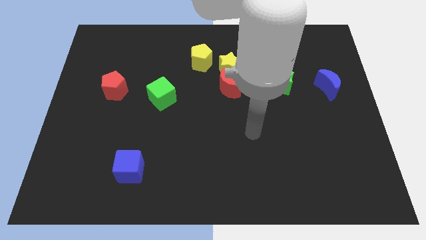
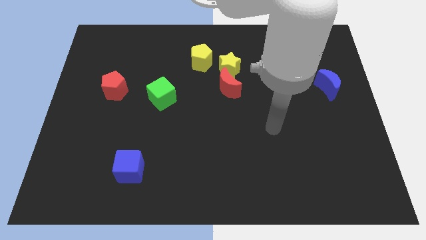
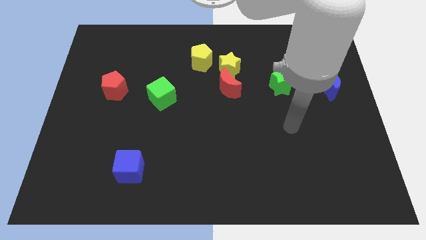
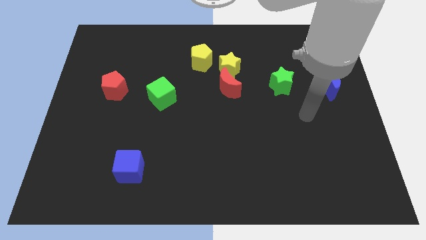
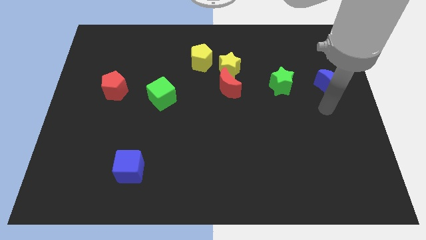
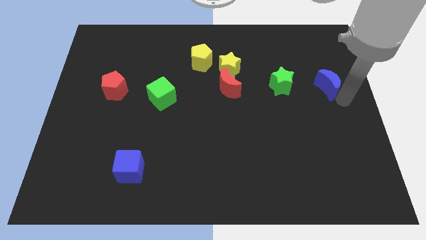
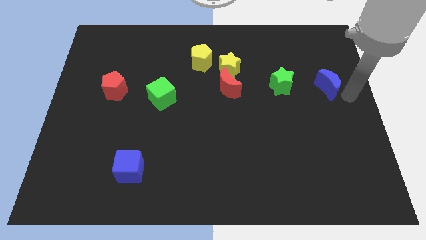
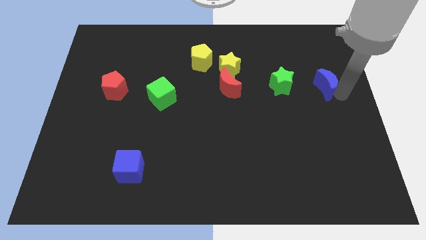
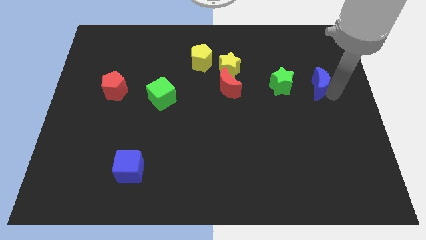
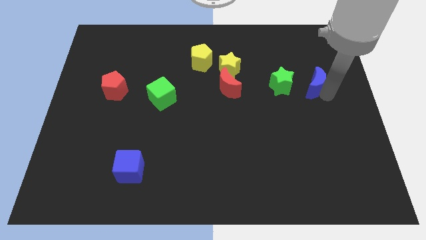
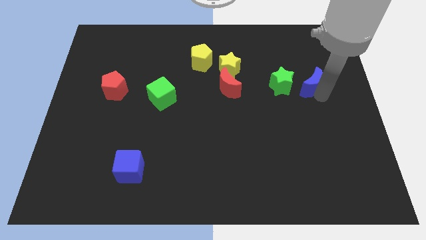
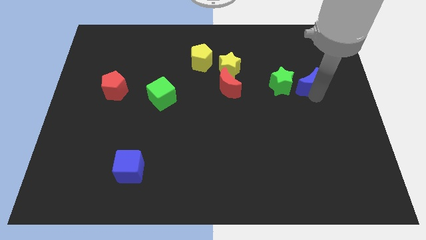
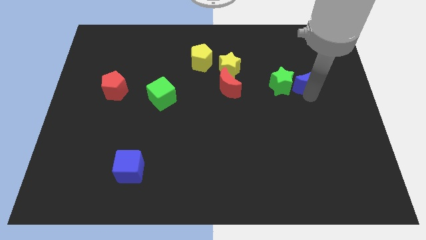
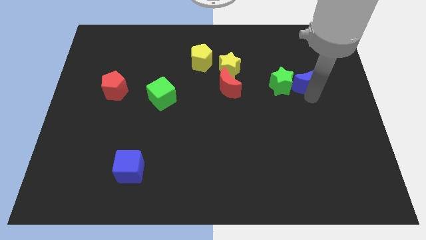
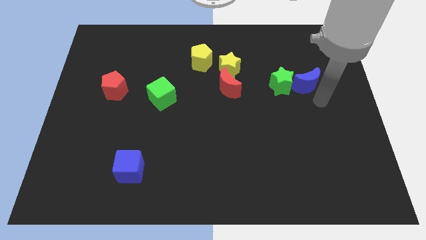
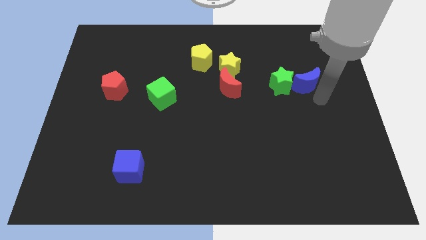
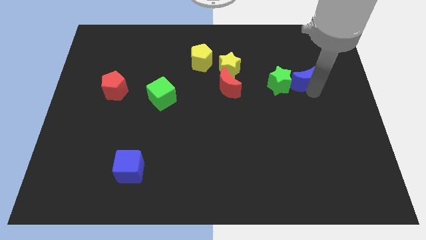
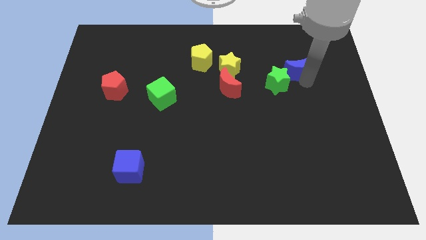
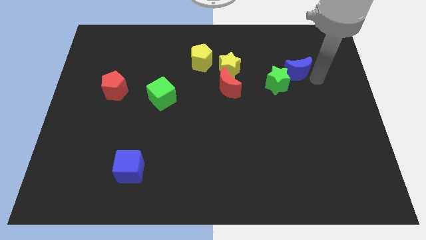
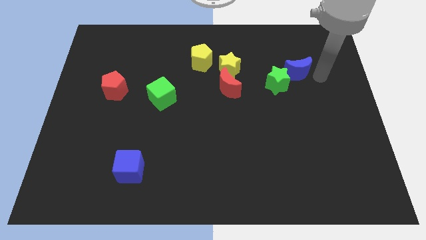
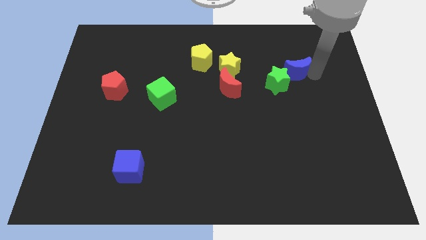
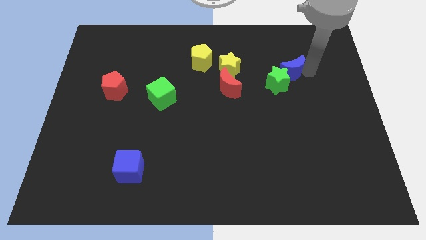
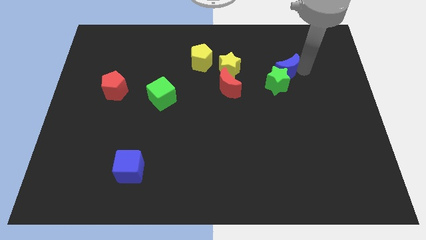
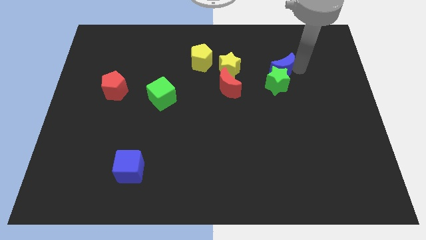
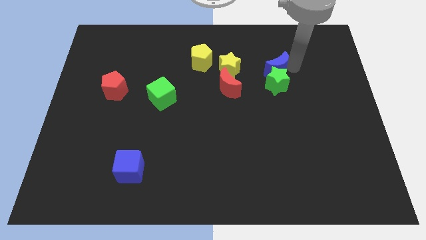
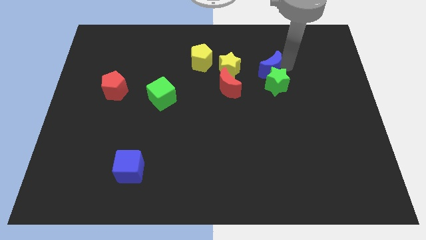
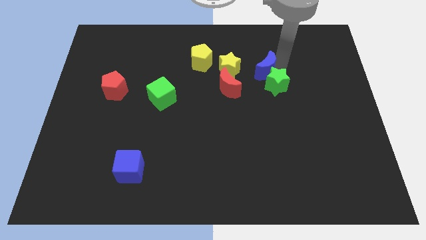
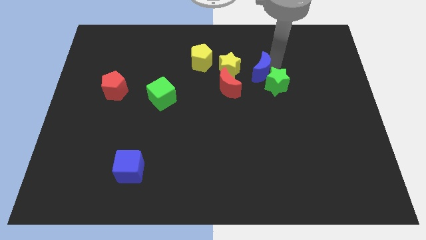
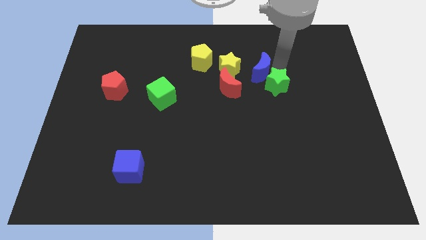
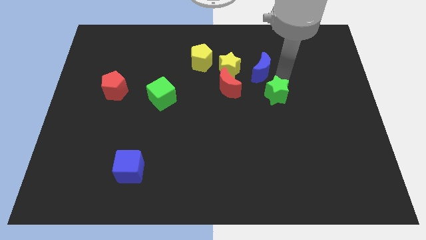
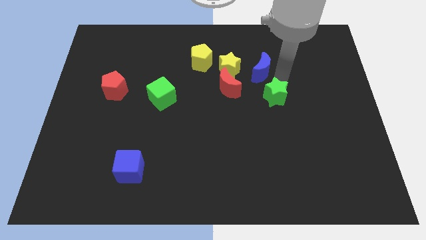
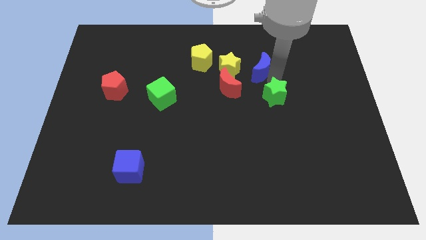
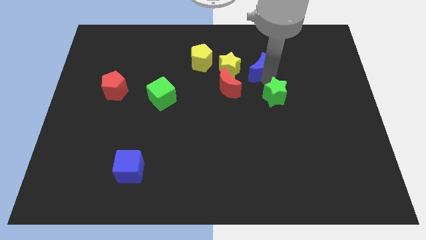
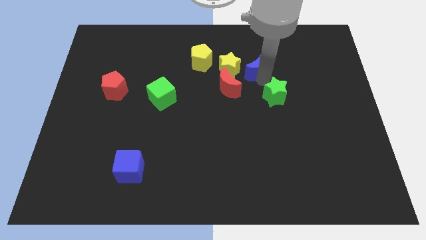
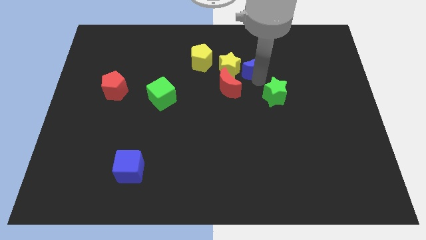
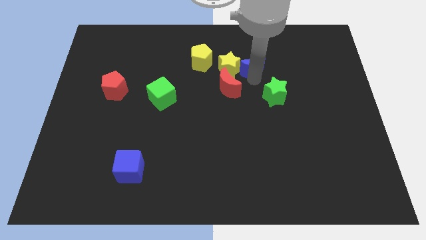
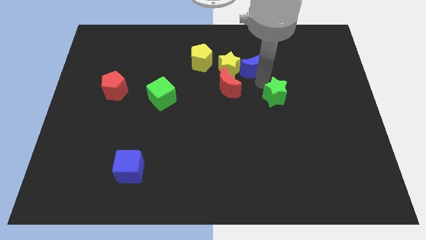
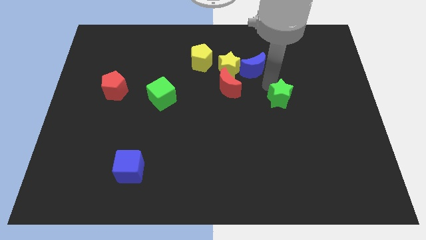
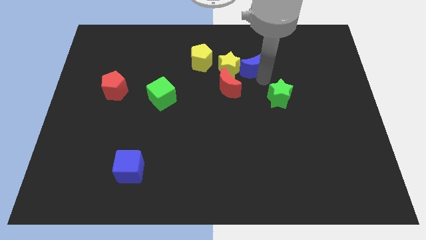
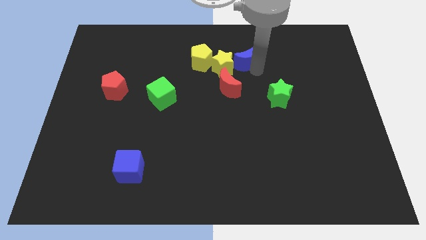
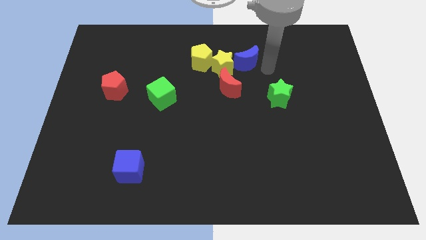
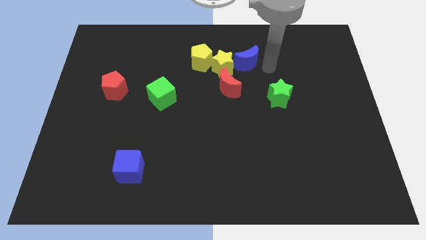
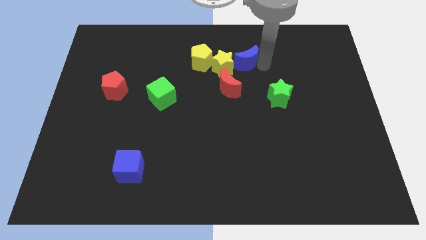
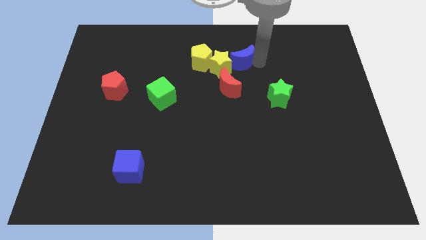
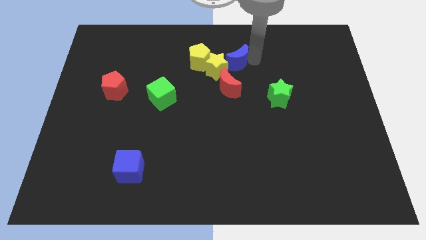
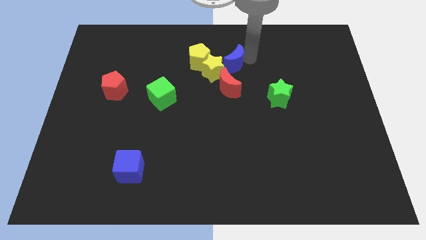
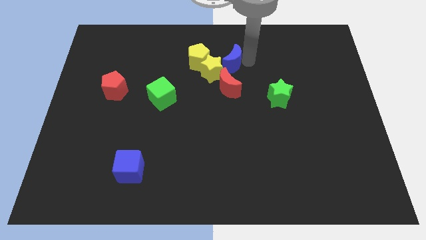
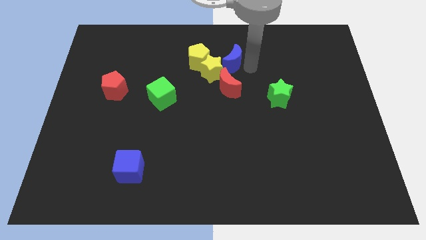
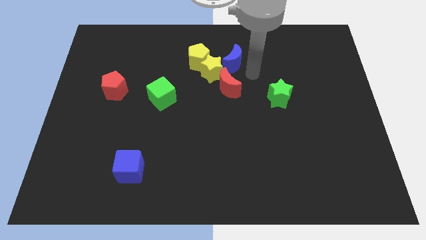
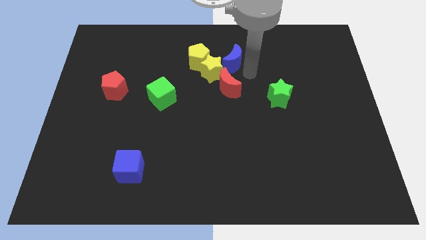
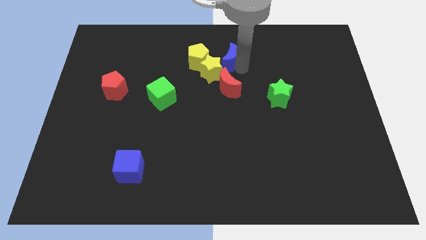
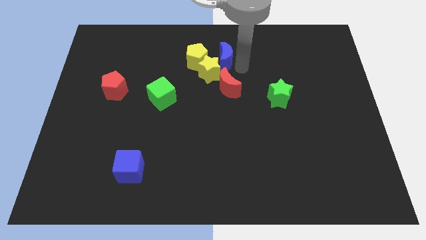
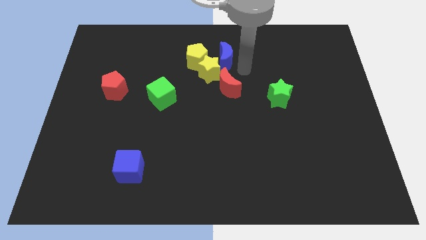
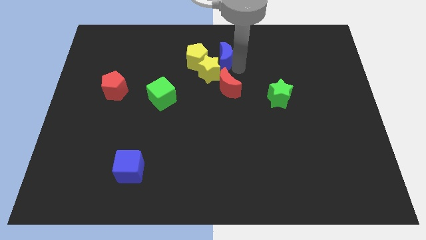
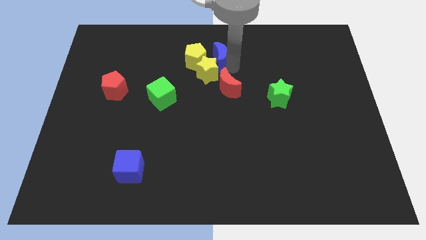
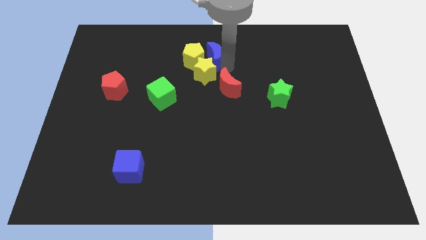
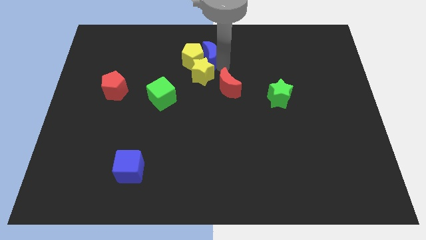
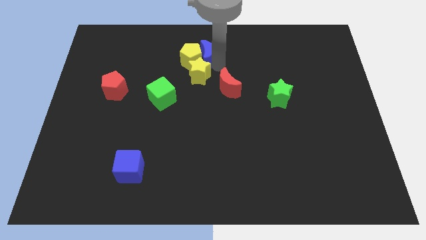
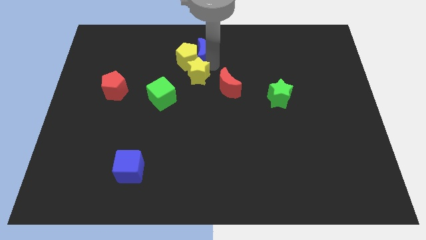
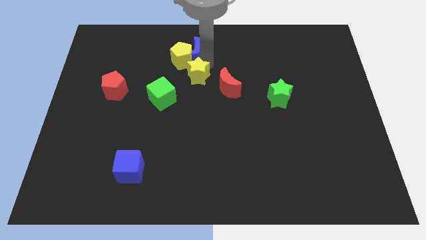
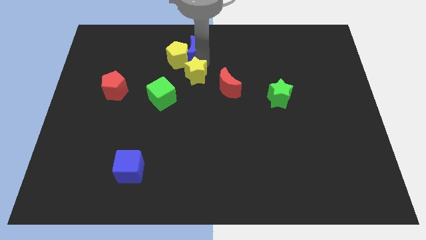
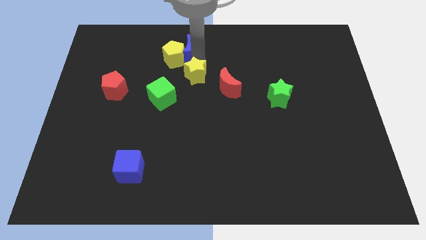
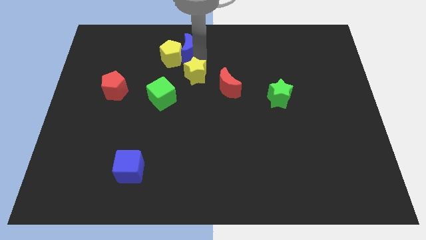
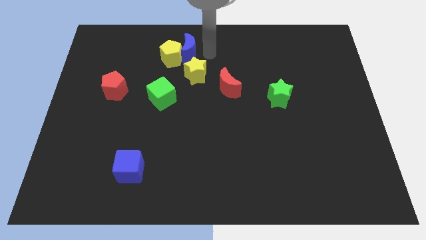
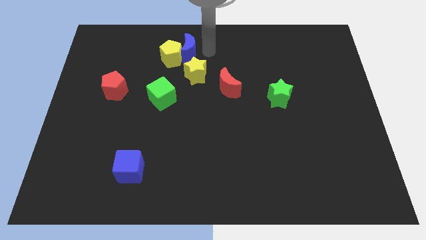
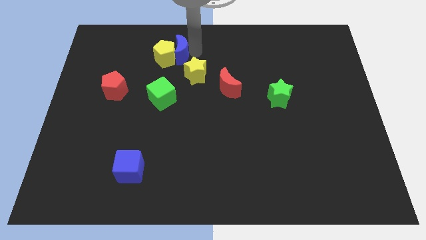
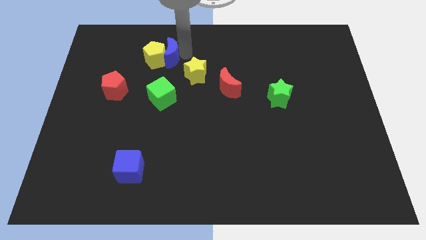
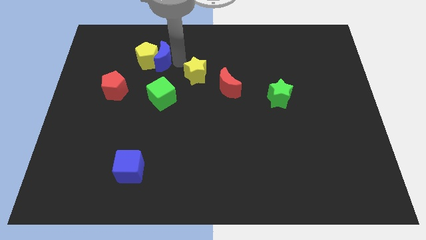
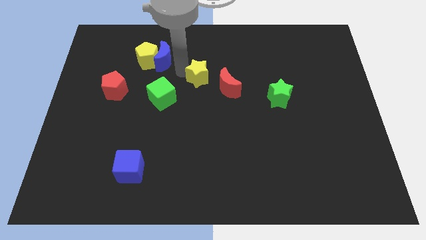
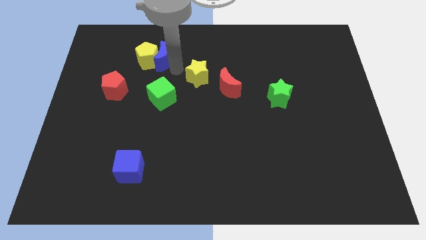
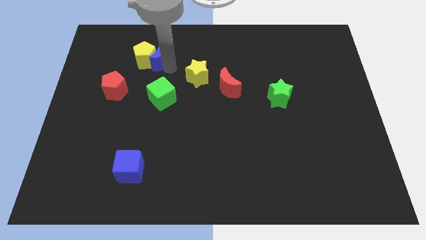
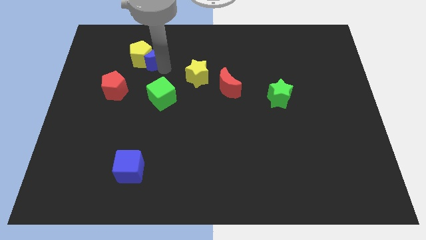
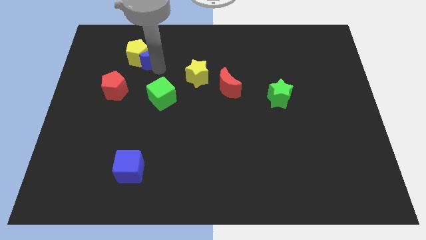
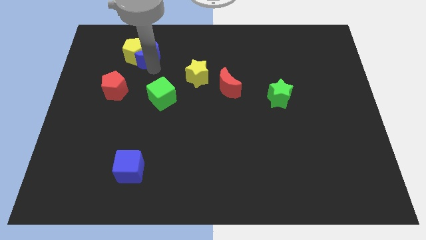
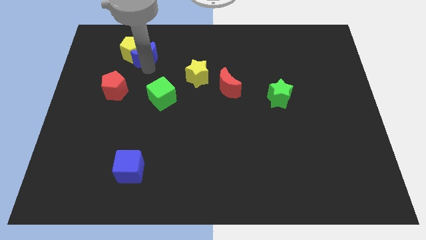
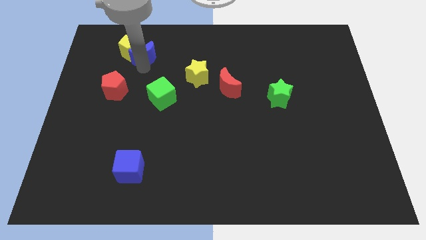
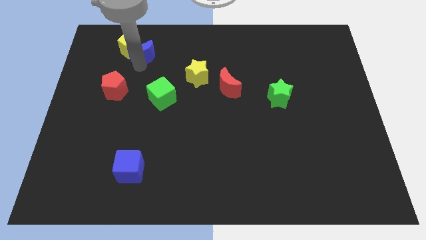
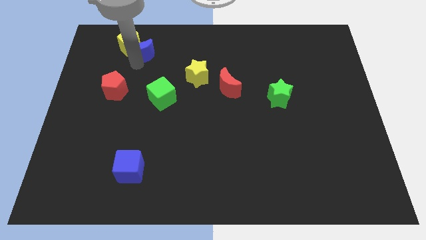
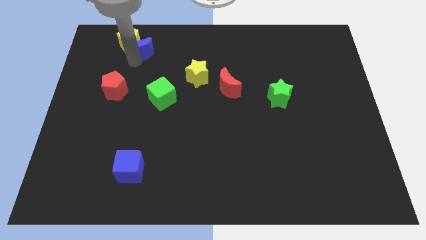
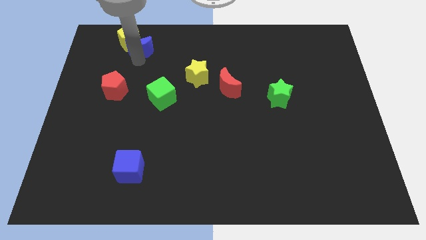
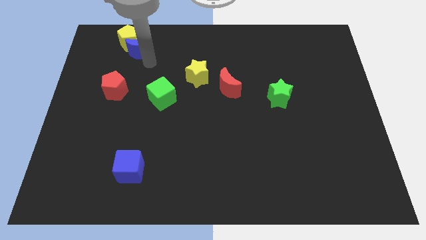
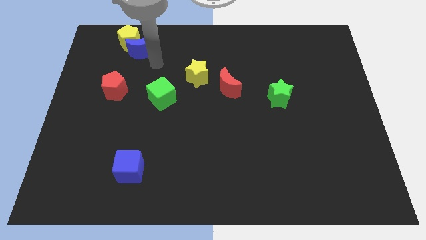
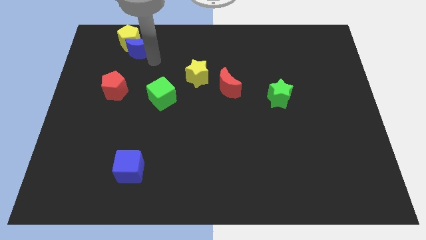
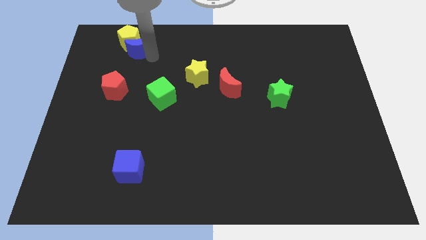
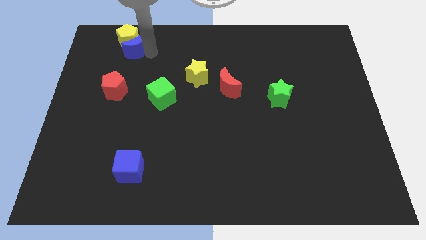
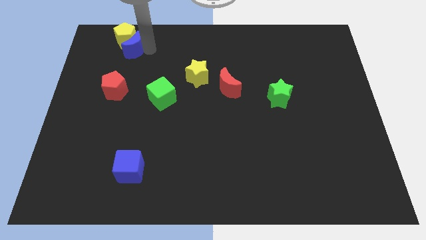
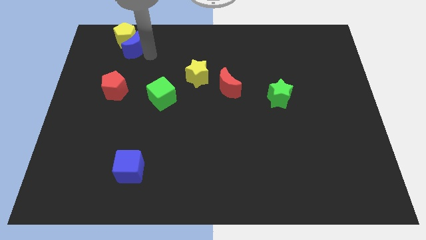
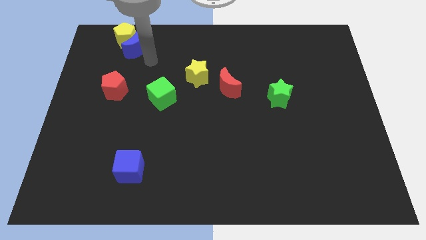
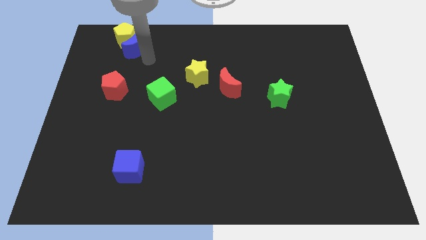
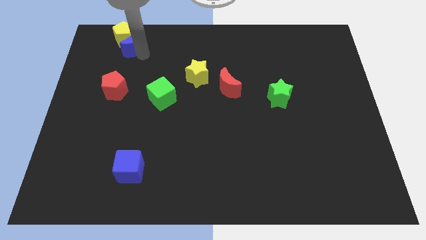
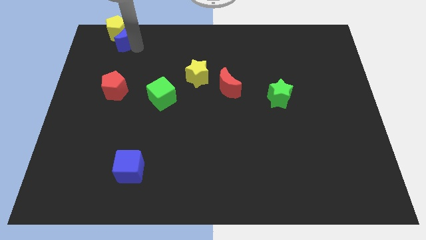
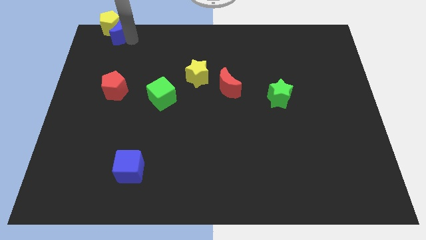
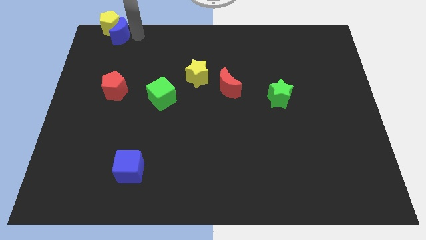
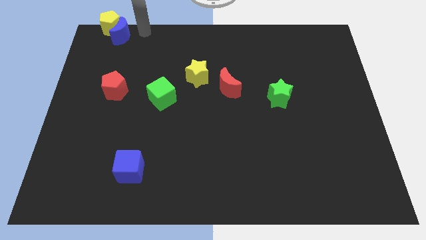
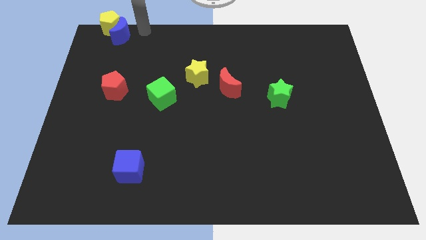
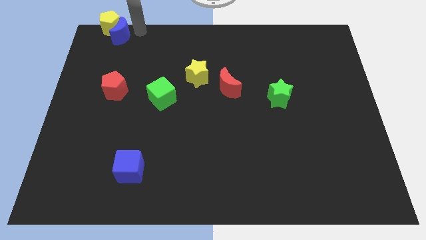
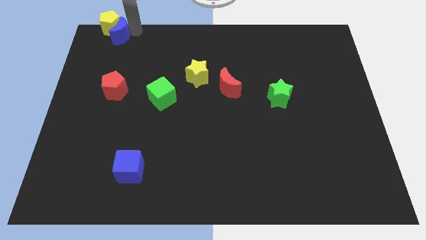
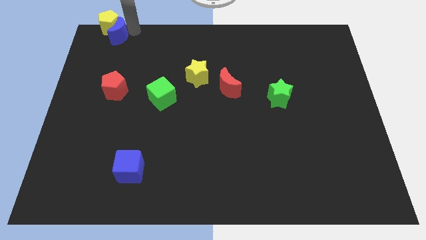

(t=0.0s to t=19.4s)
put the blue moon to the top left of the board
